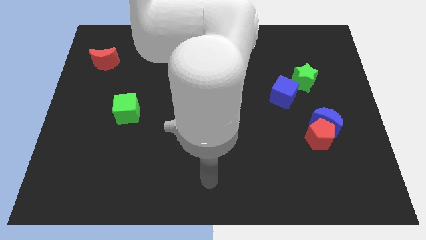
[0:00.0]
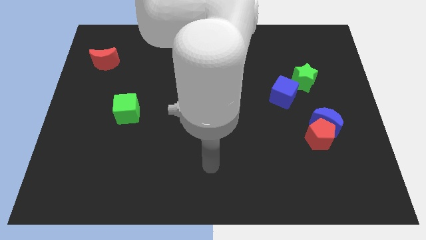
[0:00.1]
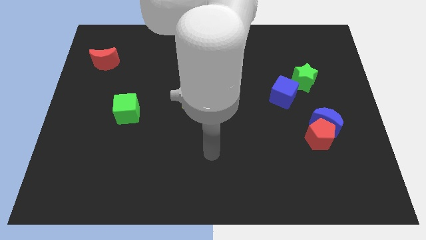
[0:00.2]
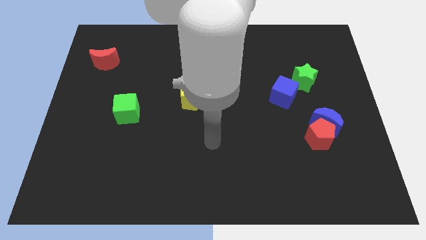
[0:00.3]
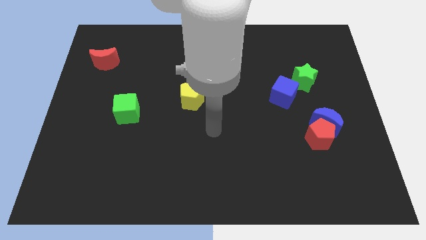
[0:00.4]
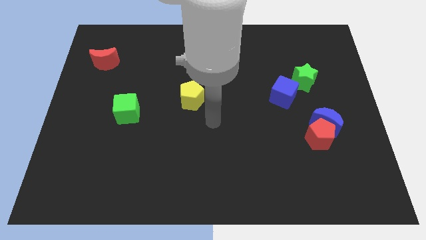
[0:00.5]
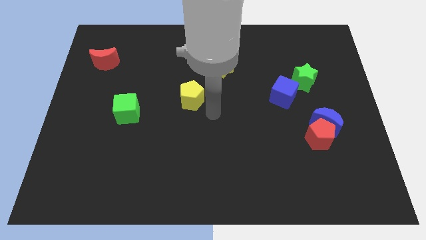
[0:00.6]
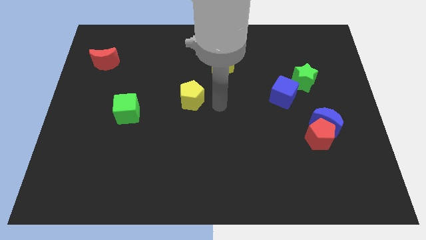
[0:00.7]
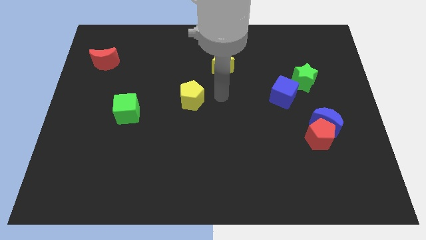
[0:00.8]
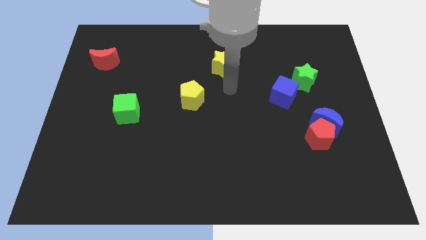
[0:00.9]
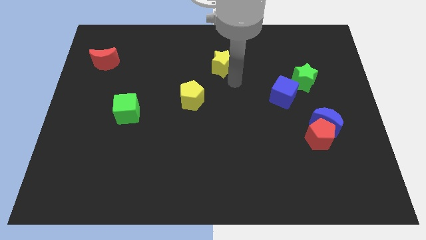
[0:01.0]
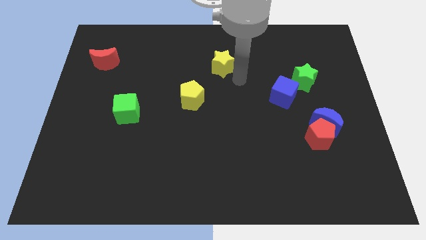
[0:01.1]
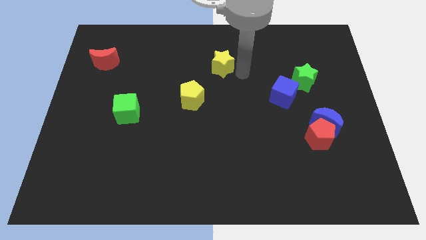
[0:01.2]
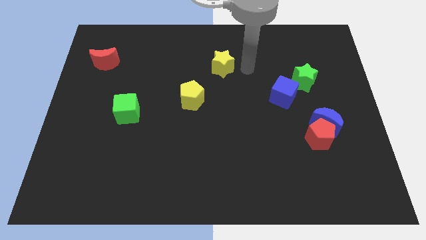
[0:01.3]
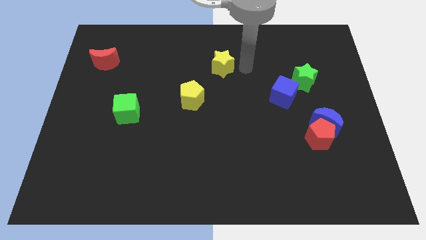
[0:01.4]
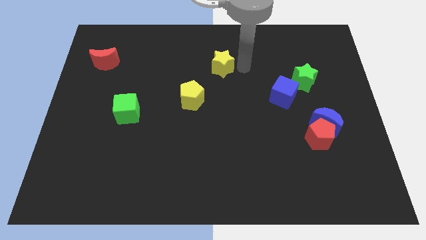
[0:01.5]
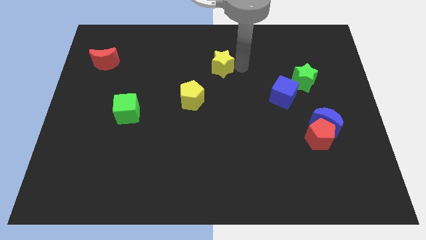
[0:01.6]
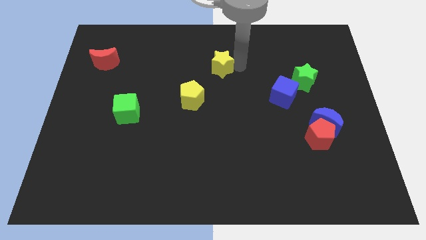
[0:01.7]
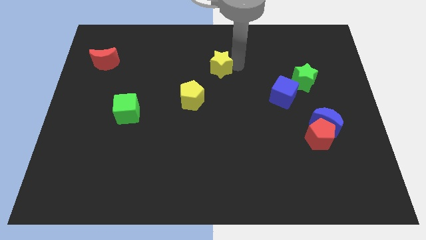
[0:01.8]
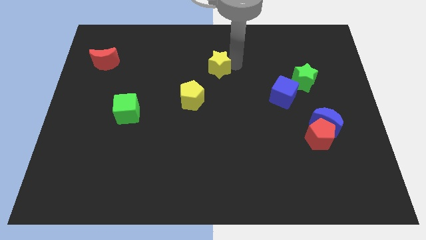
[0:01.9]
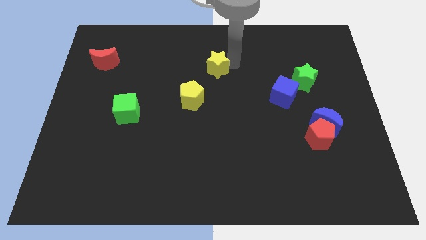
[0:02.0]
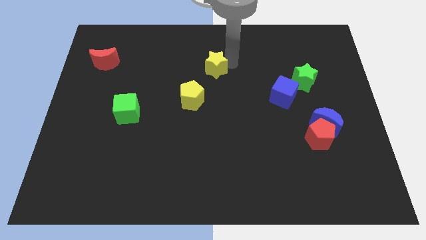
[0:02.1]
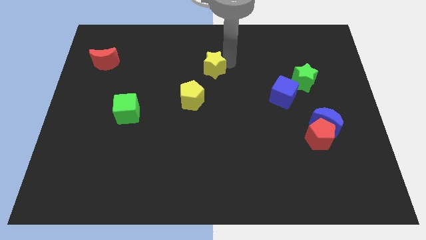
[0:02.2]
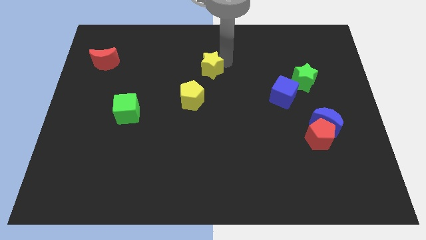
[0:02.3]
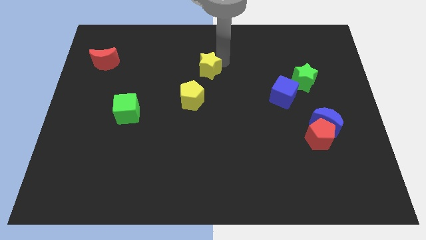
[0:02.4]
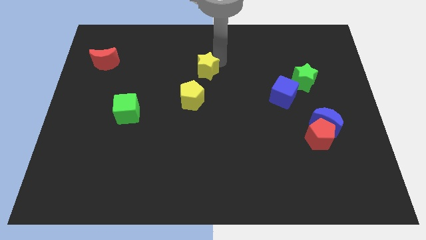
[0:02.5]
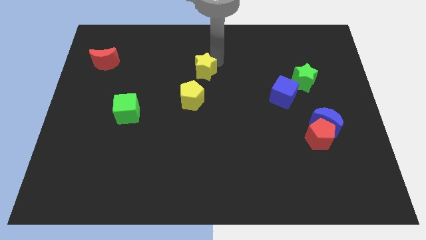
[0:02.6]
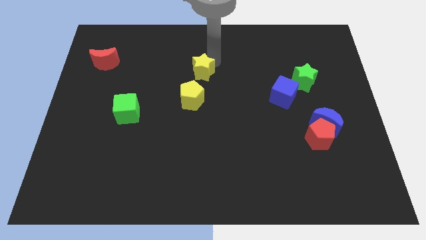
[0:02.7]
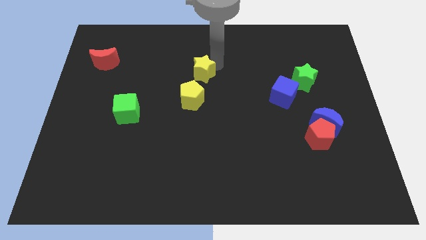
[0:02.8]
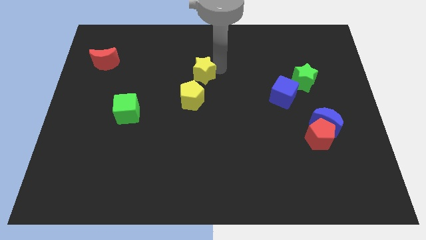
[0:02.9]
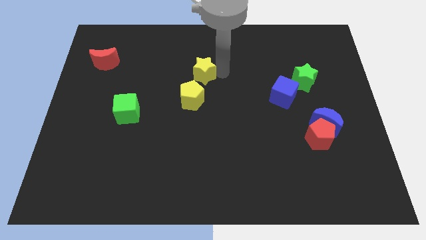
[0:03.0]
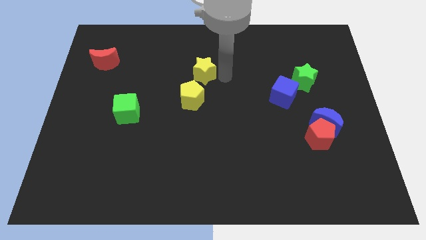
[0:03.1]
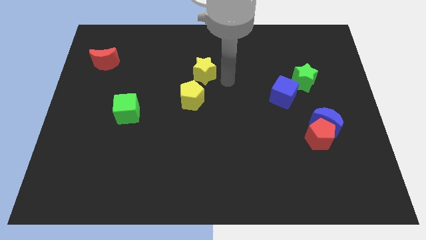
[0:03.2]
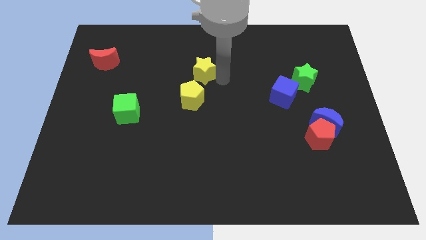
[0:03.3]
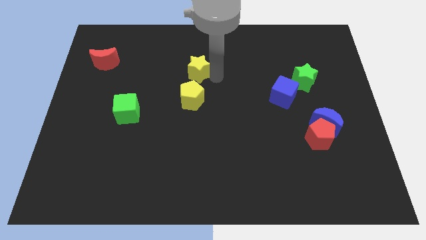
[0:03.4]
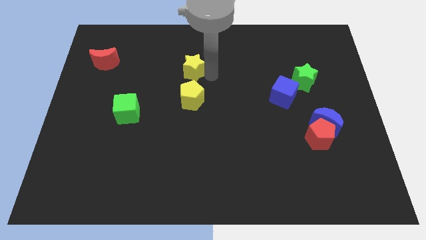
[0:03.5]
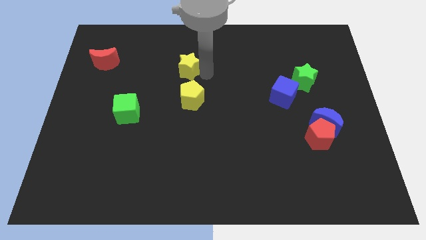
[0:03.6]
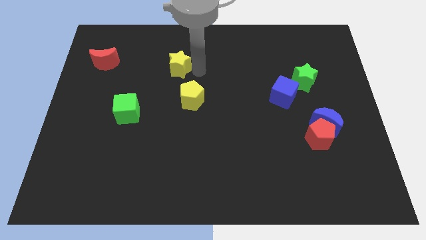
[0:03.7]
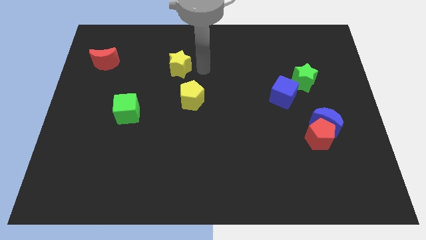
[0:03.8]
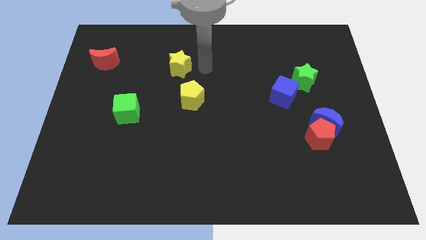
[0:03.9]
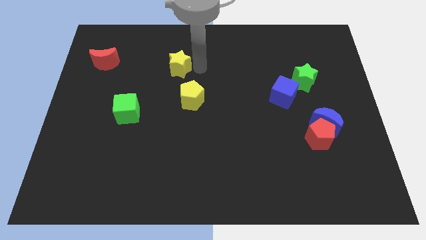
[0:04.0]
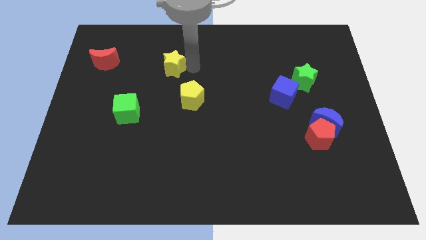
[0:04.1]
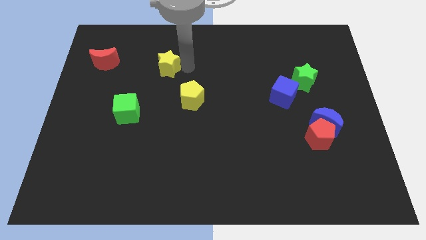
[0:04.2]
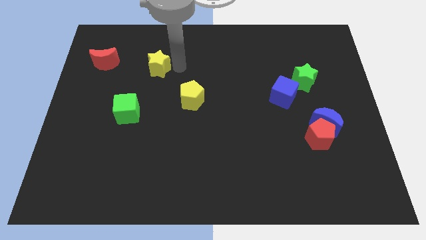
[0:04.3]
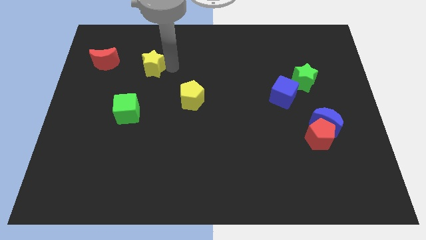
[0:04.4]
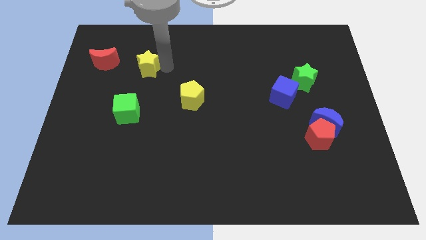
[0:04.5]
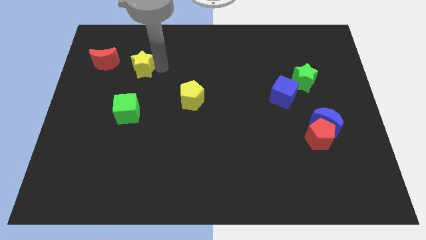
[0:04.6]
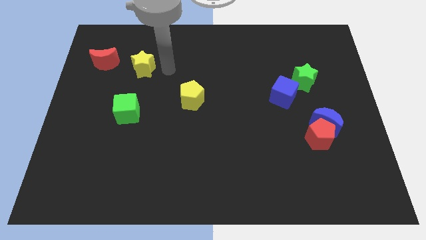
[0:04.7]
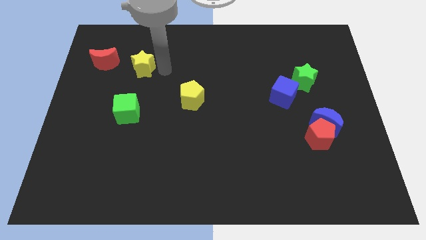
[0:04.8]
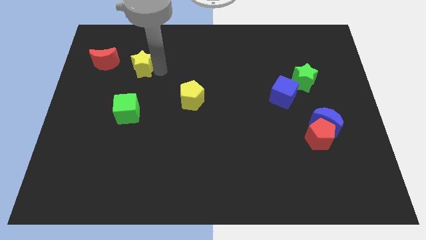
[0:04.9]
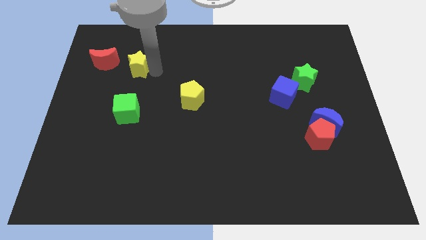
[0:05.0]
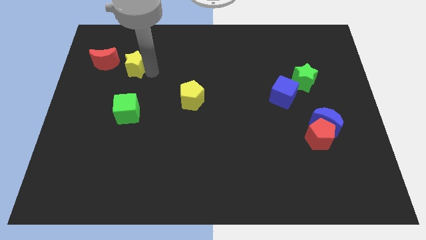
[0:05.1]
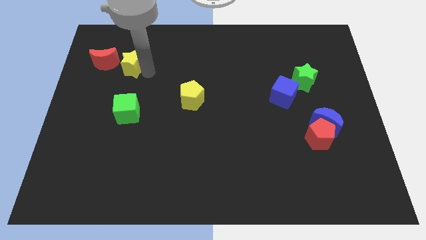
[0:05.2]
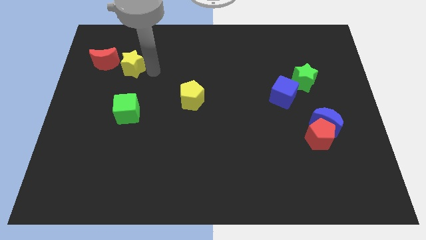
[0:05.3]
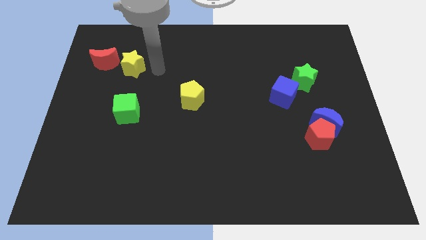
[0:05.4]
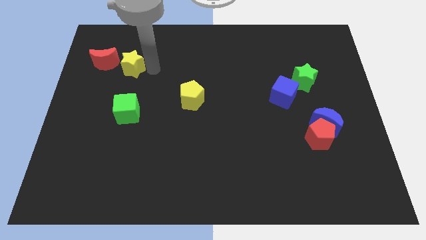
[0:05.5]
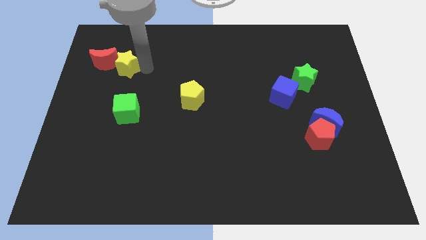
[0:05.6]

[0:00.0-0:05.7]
put the yellow star towards the red moon
